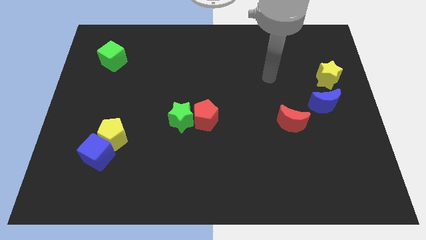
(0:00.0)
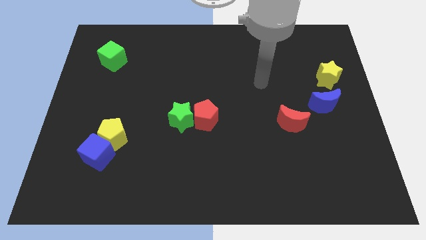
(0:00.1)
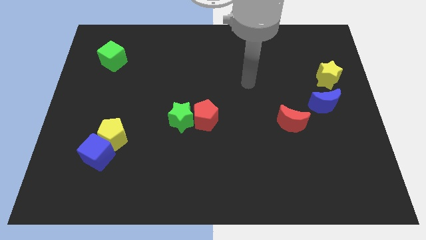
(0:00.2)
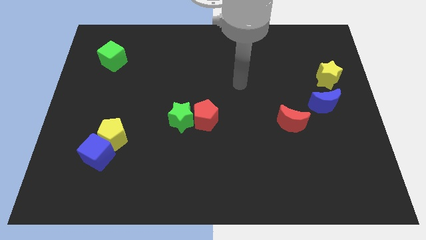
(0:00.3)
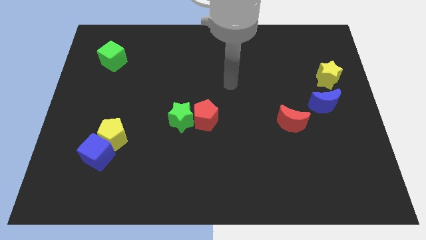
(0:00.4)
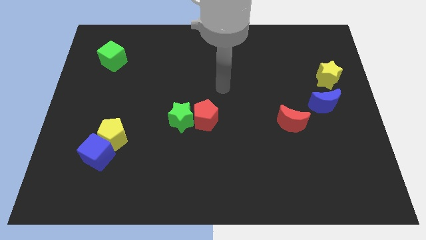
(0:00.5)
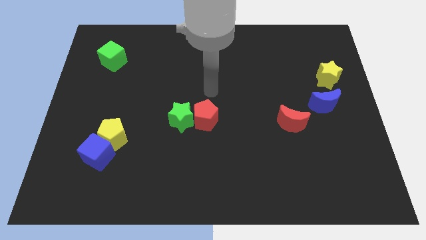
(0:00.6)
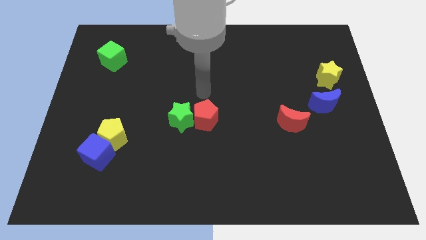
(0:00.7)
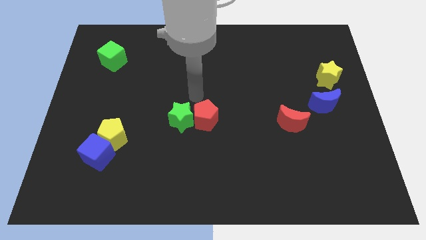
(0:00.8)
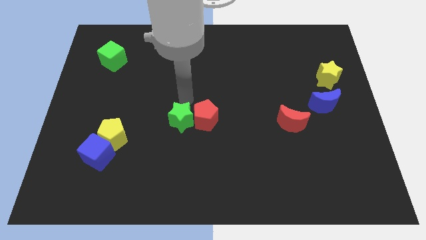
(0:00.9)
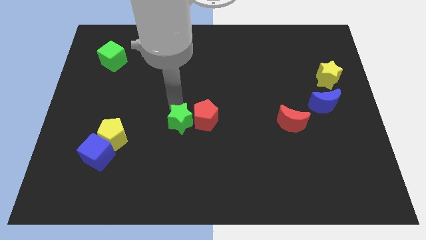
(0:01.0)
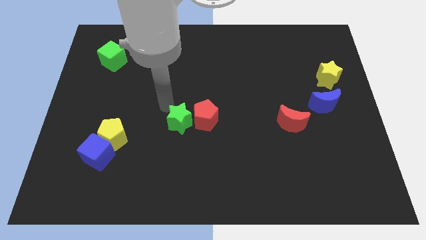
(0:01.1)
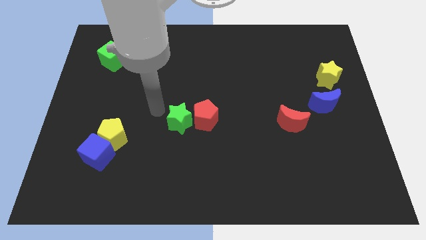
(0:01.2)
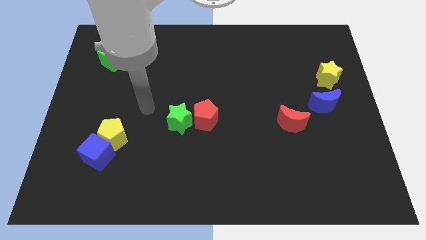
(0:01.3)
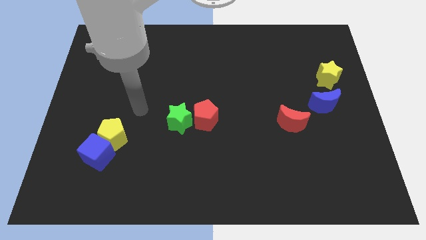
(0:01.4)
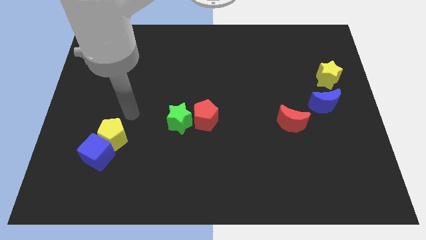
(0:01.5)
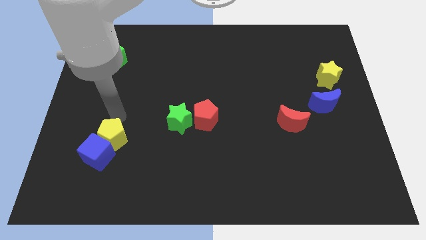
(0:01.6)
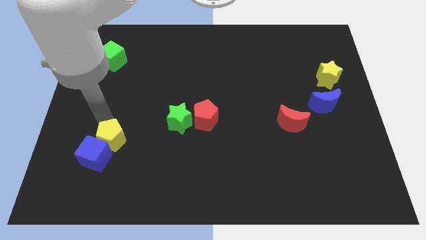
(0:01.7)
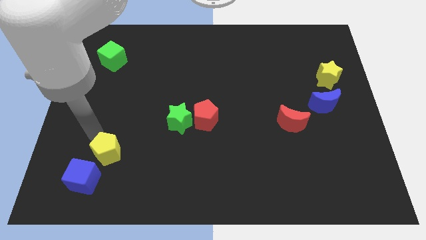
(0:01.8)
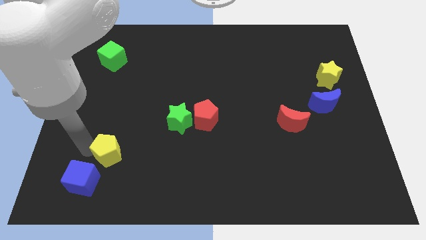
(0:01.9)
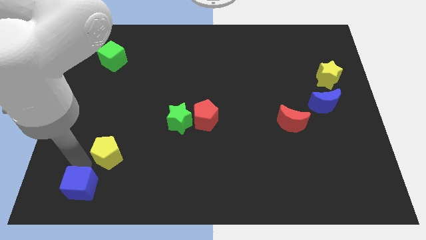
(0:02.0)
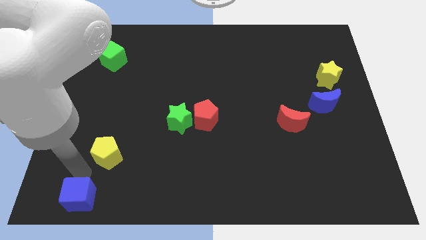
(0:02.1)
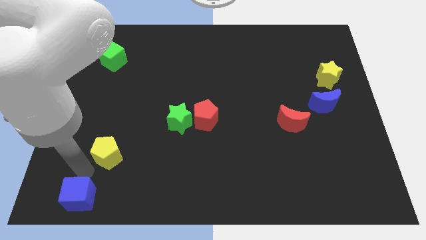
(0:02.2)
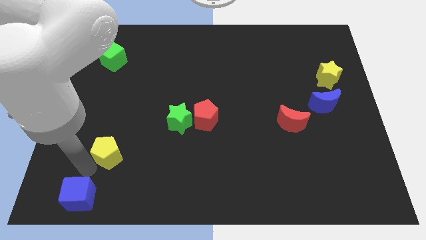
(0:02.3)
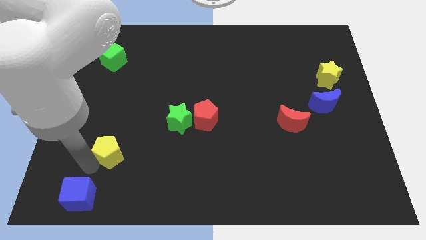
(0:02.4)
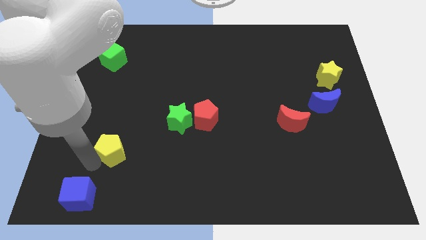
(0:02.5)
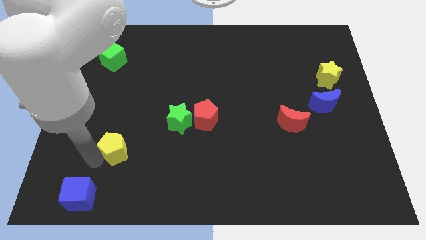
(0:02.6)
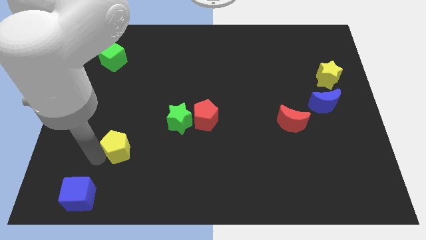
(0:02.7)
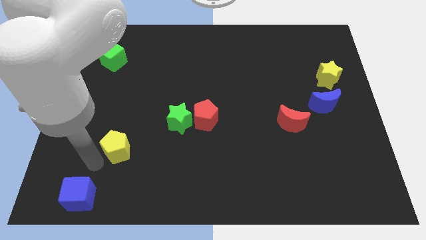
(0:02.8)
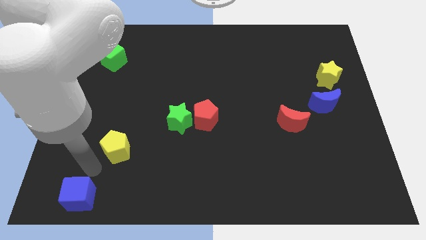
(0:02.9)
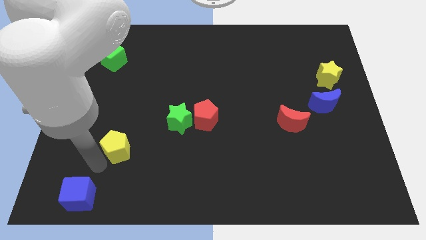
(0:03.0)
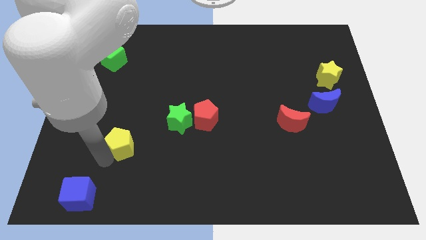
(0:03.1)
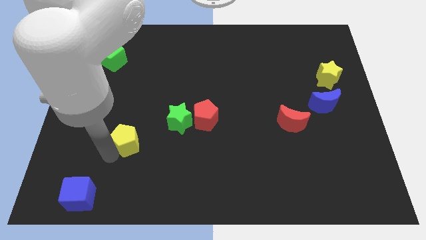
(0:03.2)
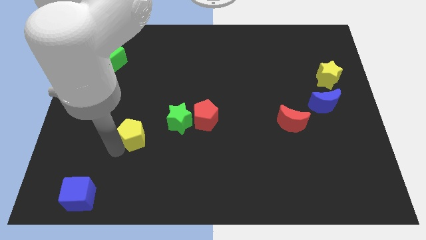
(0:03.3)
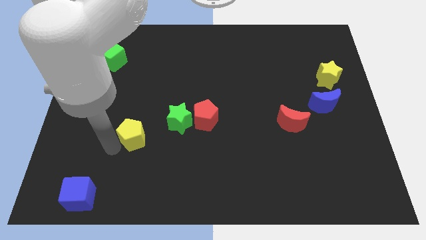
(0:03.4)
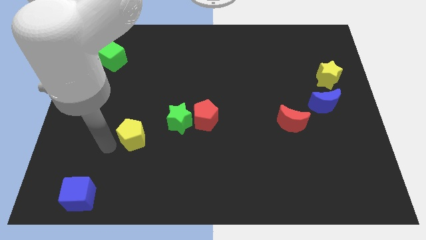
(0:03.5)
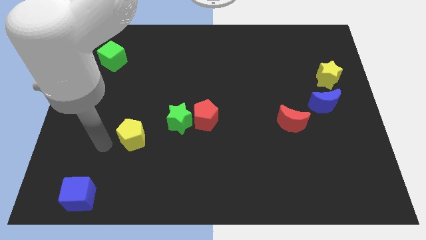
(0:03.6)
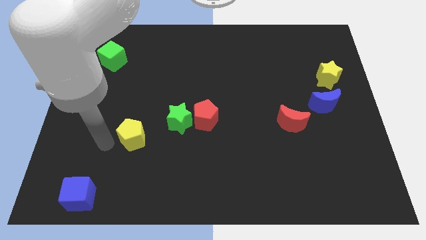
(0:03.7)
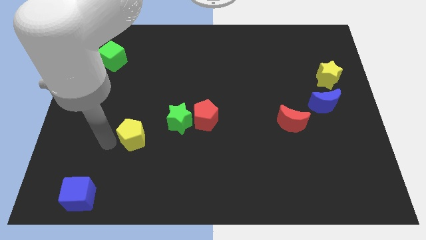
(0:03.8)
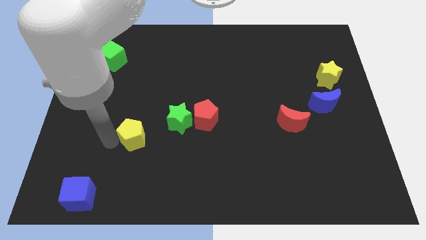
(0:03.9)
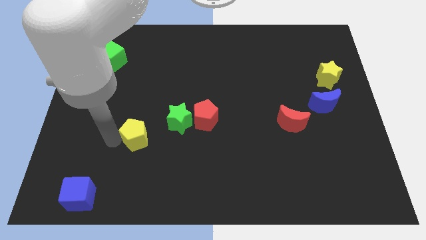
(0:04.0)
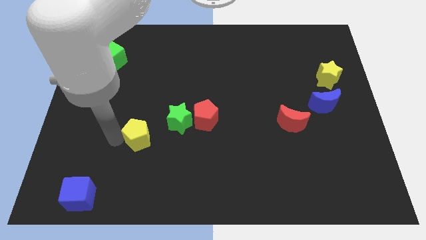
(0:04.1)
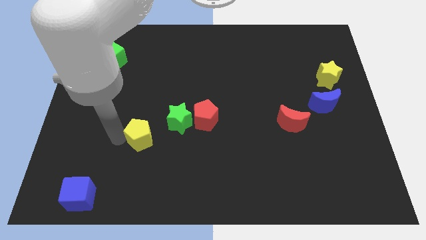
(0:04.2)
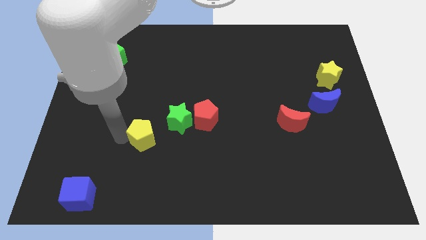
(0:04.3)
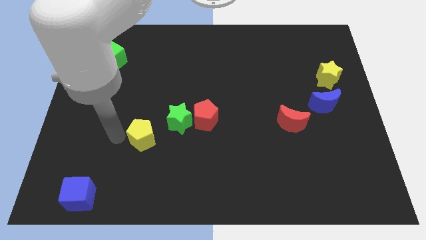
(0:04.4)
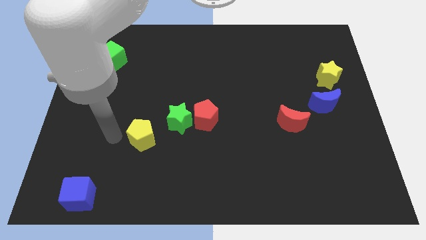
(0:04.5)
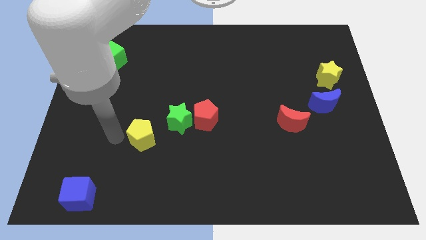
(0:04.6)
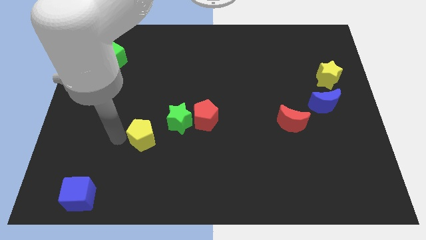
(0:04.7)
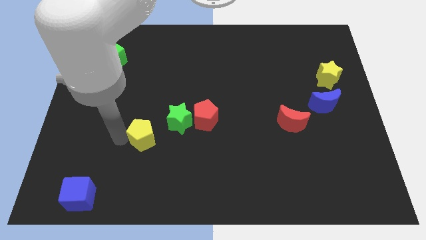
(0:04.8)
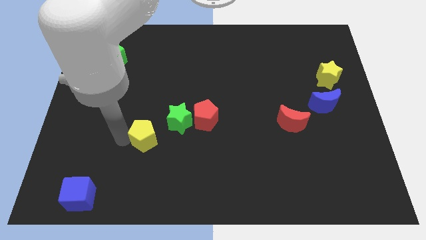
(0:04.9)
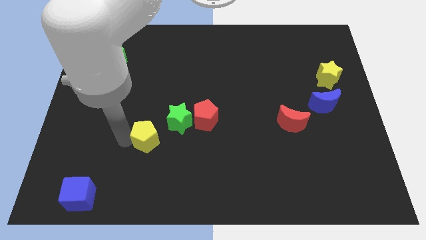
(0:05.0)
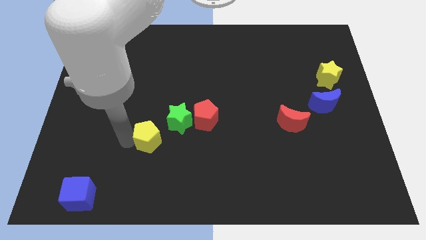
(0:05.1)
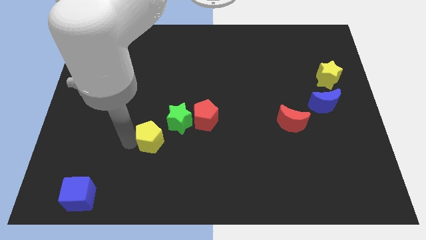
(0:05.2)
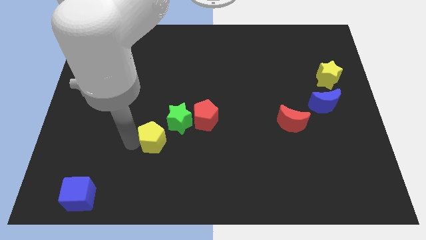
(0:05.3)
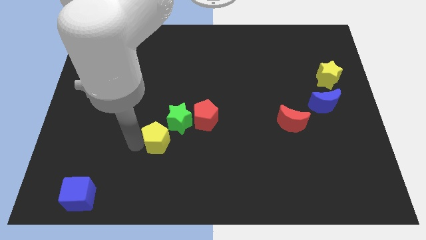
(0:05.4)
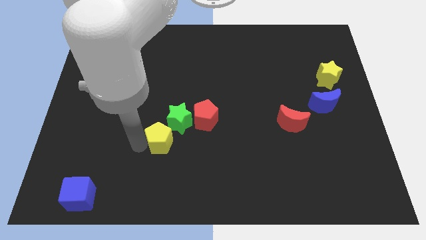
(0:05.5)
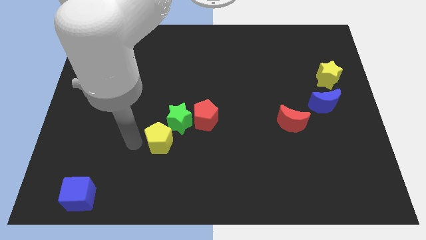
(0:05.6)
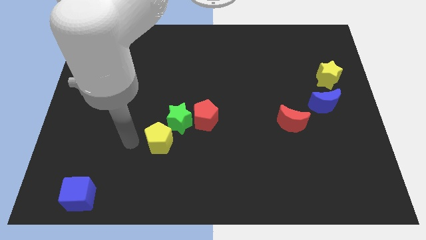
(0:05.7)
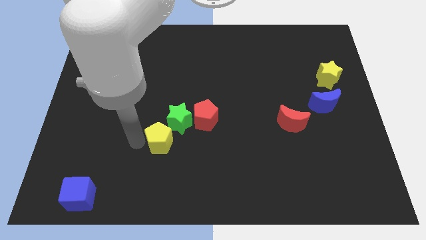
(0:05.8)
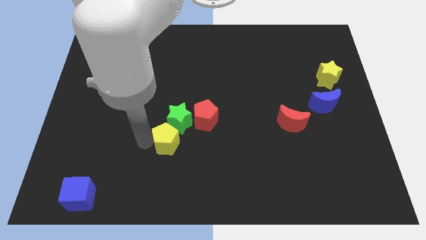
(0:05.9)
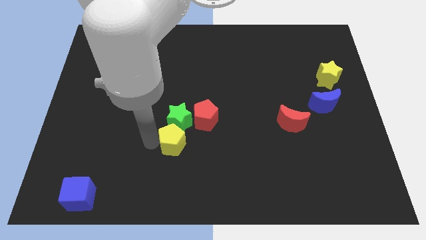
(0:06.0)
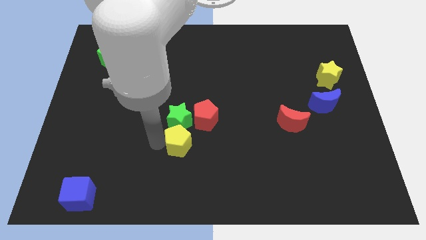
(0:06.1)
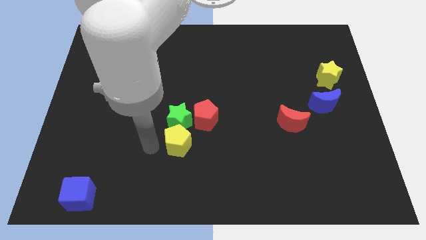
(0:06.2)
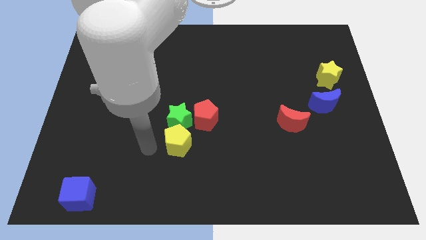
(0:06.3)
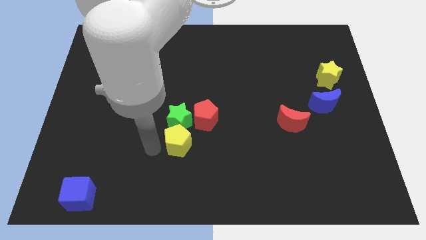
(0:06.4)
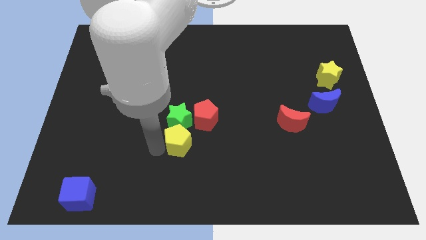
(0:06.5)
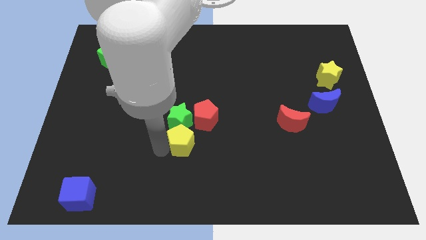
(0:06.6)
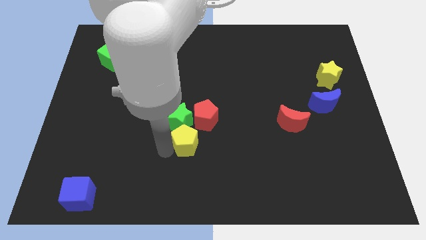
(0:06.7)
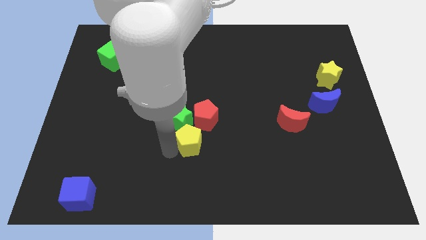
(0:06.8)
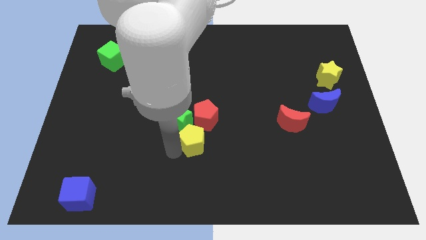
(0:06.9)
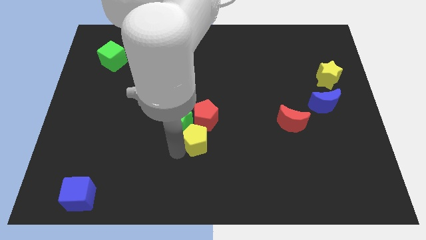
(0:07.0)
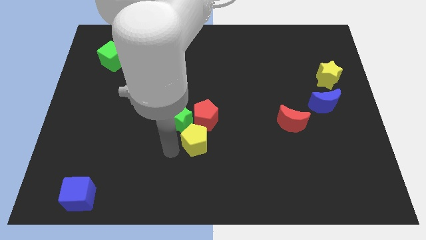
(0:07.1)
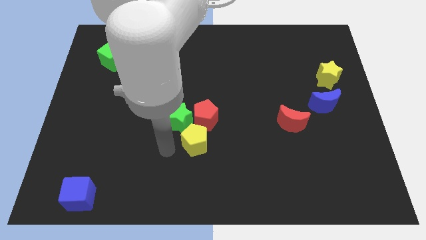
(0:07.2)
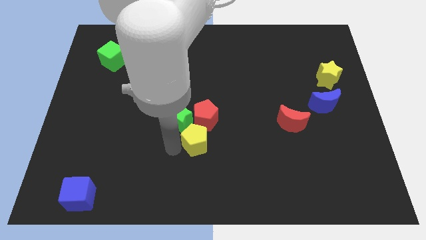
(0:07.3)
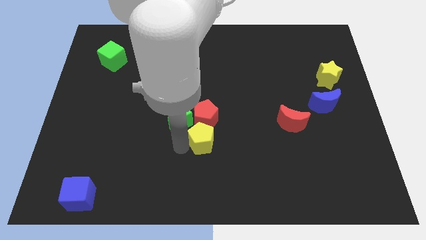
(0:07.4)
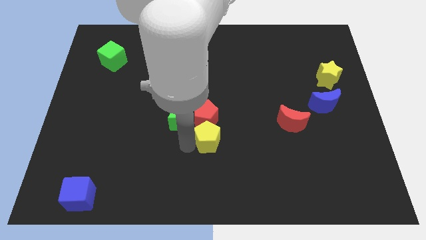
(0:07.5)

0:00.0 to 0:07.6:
slide the yellow pentagon to the right

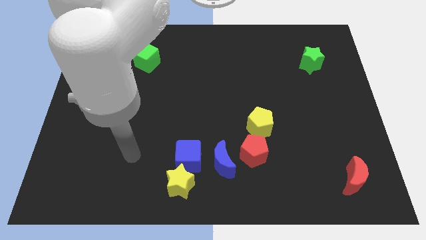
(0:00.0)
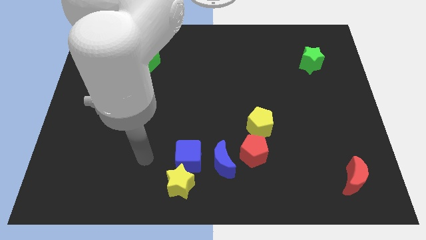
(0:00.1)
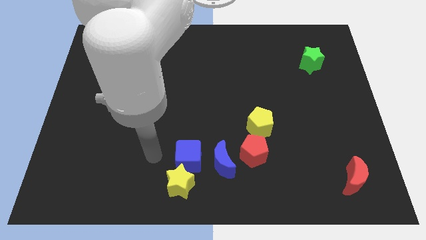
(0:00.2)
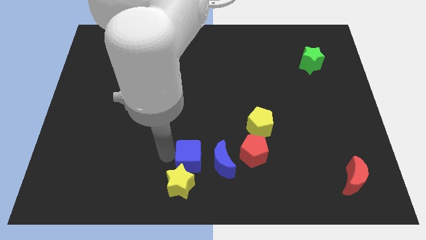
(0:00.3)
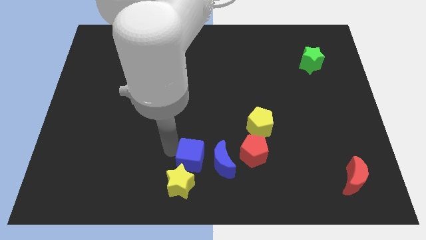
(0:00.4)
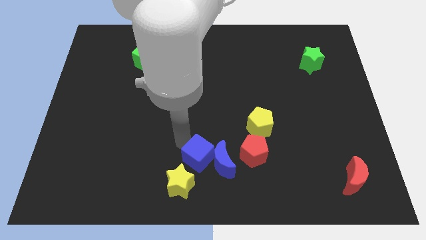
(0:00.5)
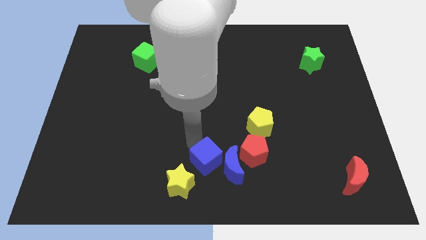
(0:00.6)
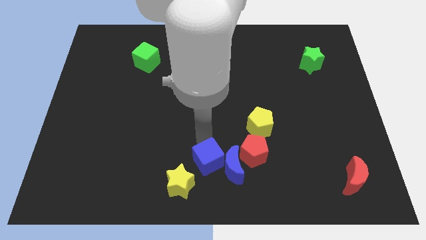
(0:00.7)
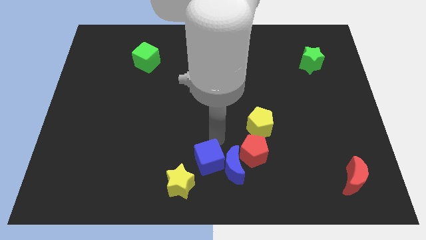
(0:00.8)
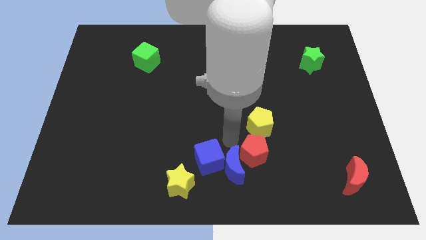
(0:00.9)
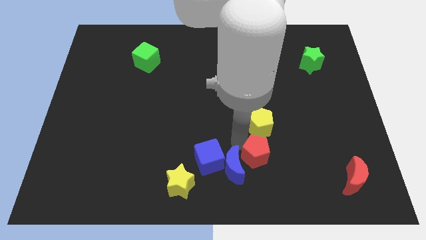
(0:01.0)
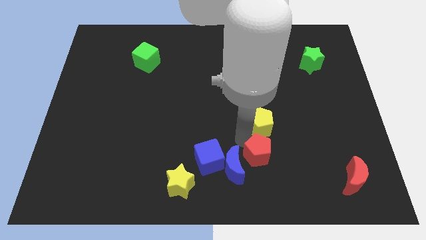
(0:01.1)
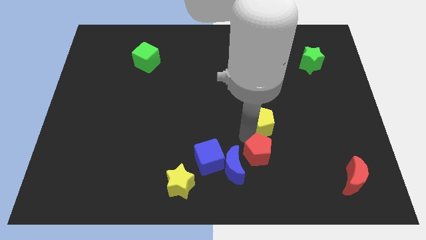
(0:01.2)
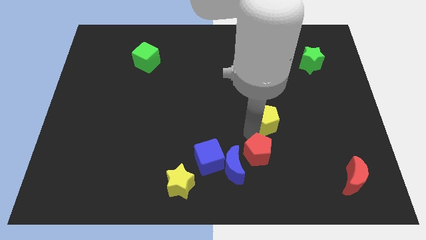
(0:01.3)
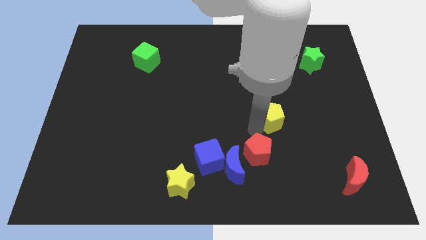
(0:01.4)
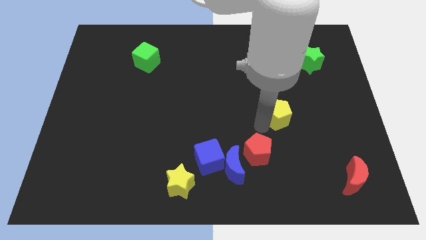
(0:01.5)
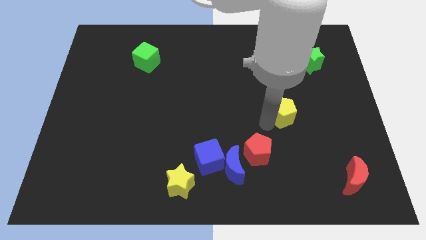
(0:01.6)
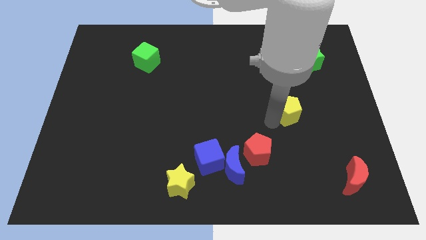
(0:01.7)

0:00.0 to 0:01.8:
move the yellow pentagon a little bit up and then right
